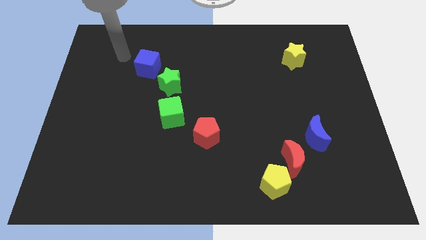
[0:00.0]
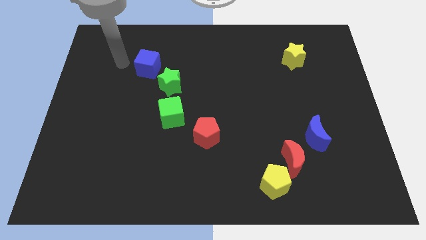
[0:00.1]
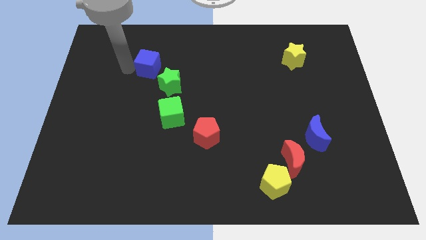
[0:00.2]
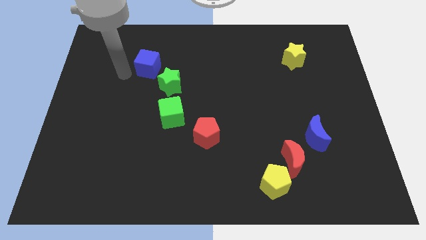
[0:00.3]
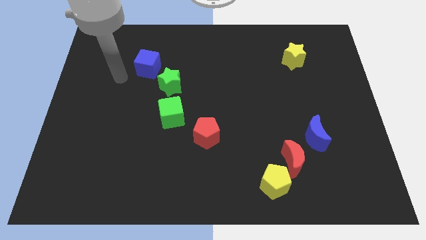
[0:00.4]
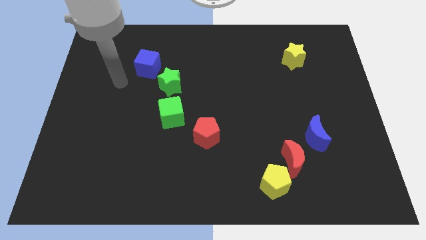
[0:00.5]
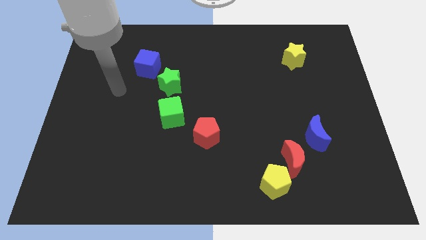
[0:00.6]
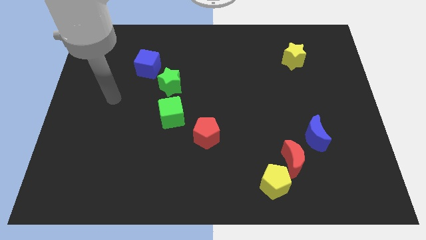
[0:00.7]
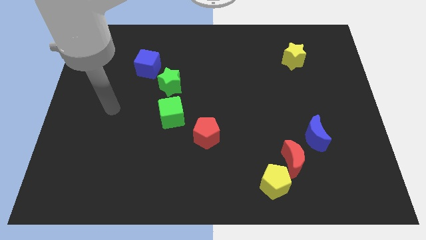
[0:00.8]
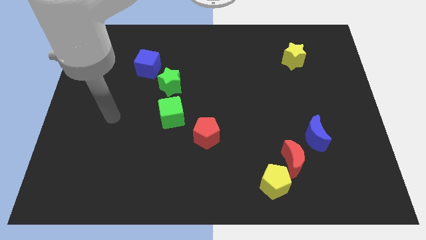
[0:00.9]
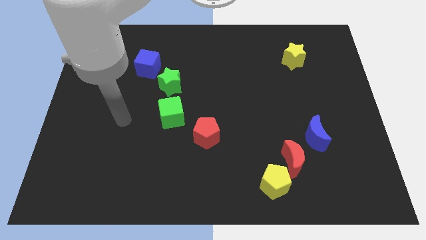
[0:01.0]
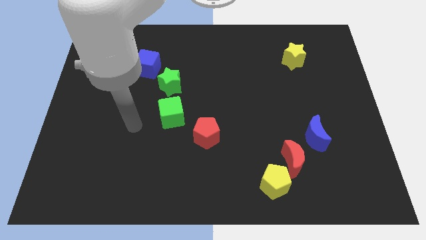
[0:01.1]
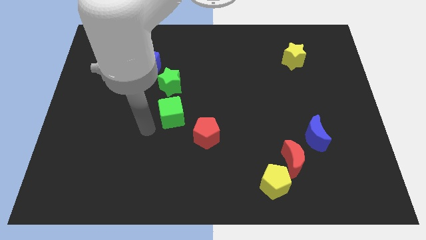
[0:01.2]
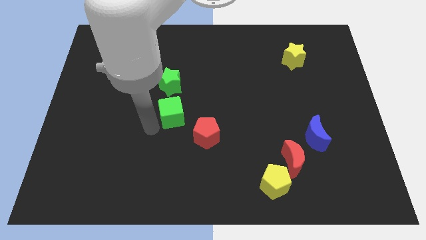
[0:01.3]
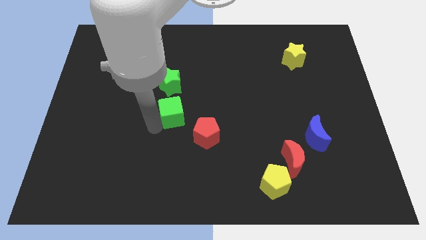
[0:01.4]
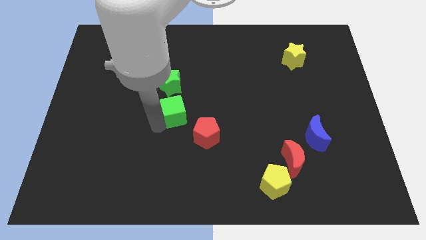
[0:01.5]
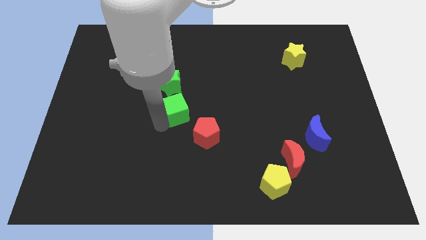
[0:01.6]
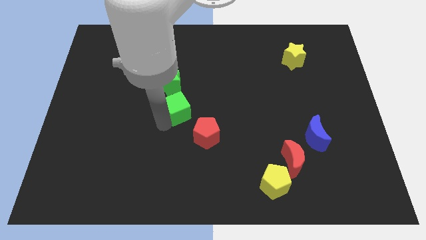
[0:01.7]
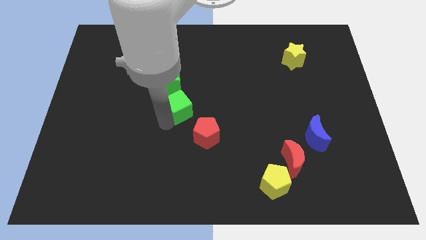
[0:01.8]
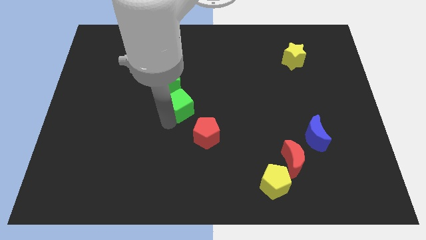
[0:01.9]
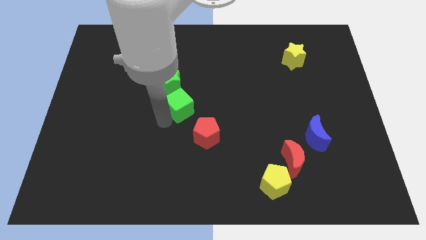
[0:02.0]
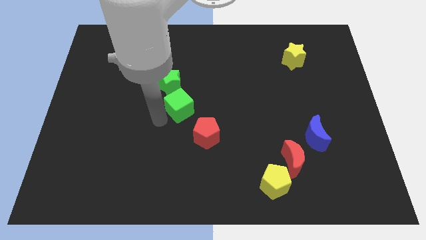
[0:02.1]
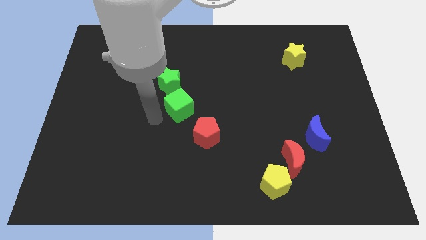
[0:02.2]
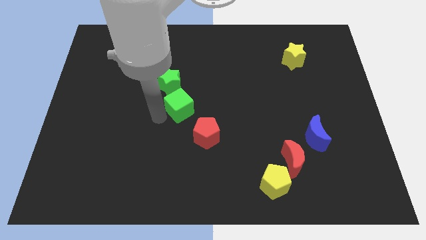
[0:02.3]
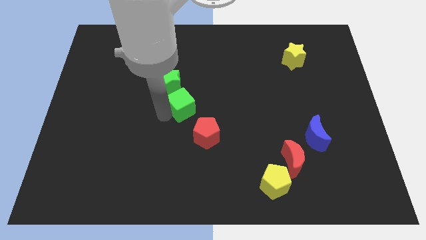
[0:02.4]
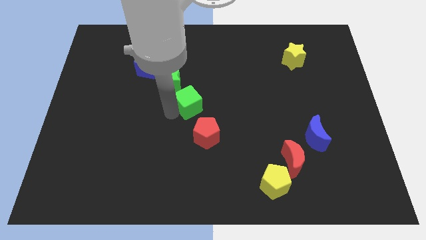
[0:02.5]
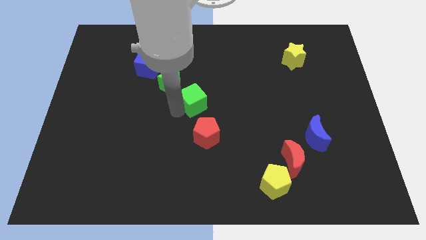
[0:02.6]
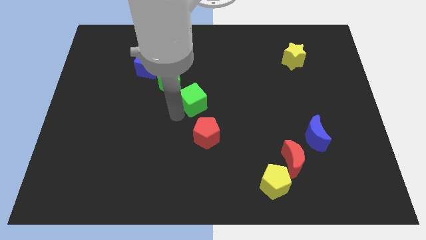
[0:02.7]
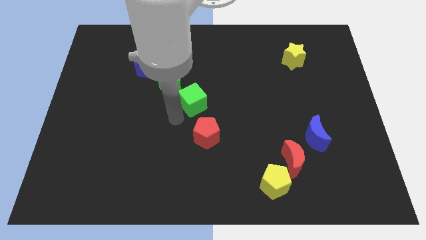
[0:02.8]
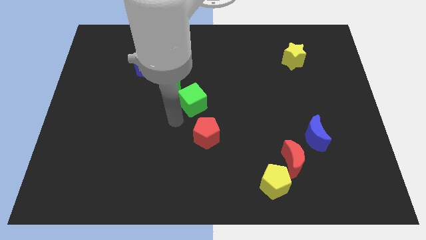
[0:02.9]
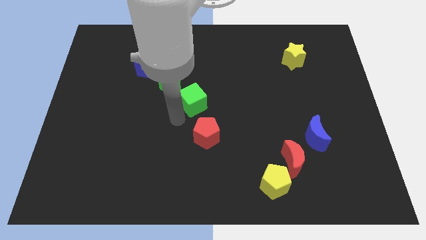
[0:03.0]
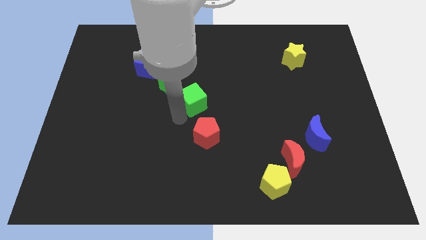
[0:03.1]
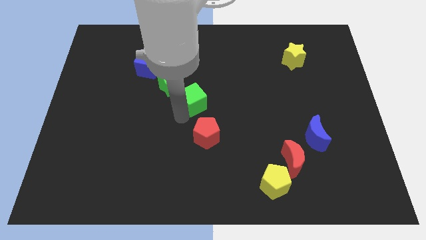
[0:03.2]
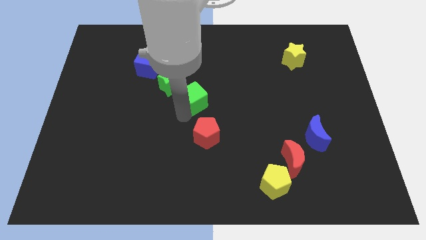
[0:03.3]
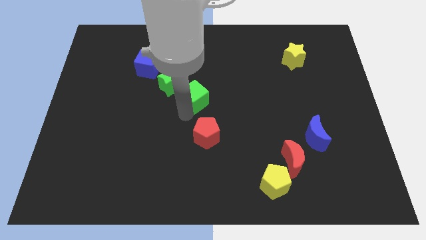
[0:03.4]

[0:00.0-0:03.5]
slightly move the green cube diagonally up and right

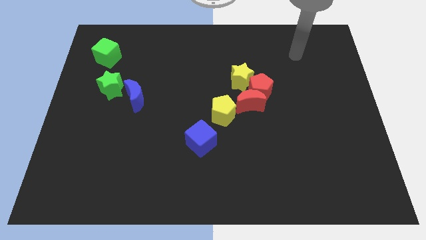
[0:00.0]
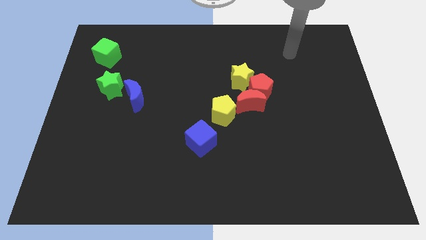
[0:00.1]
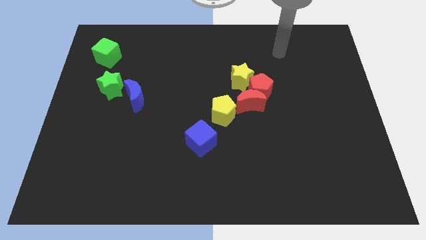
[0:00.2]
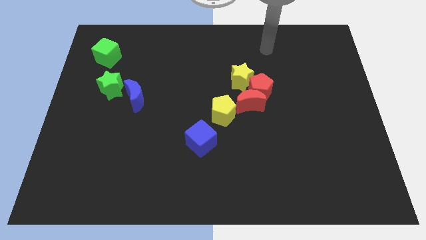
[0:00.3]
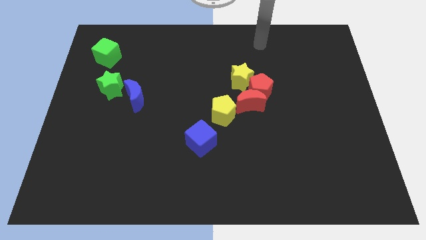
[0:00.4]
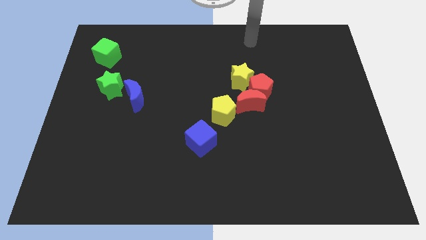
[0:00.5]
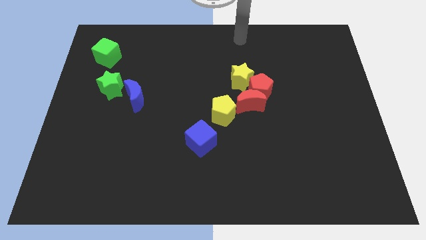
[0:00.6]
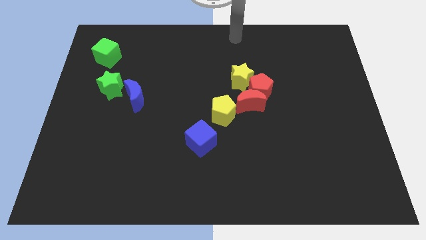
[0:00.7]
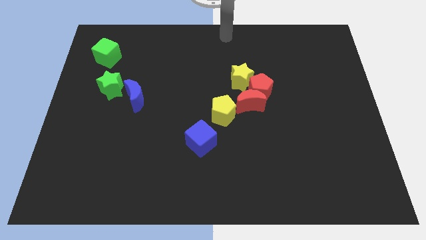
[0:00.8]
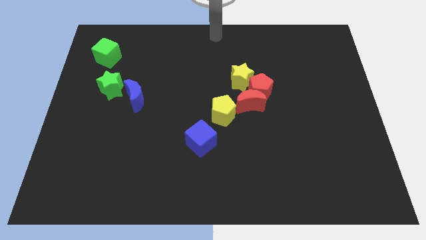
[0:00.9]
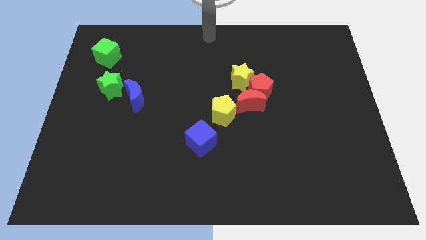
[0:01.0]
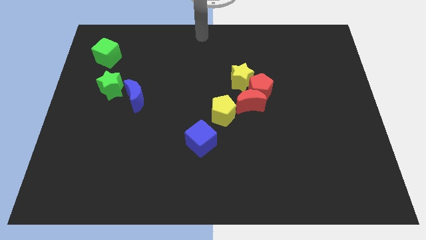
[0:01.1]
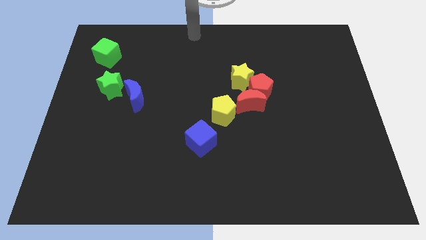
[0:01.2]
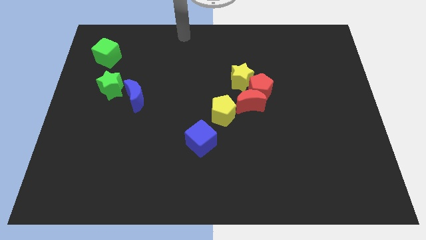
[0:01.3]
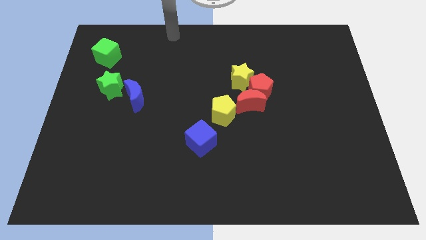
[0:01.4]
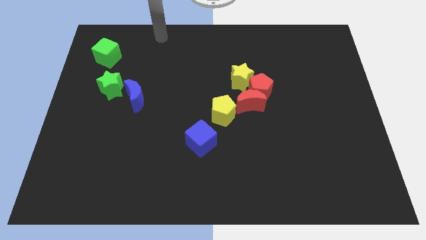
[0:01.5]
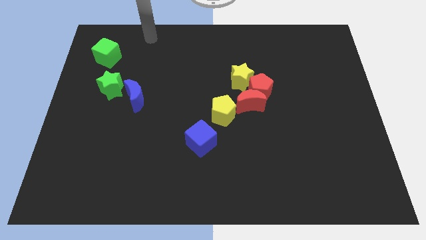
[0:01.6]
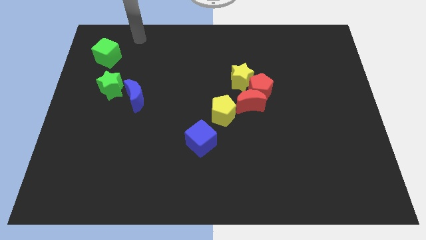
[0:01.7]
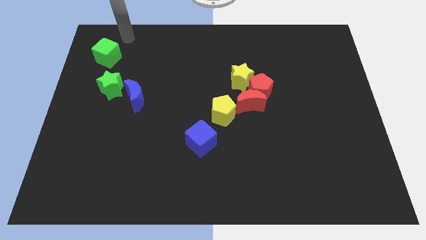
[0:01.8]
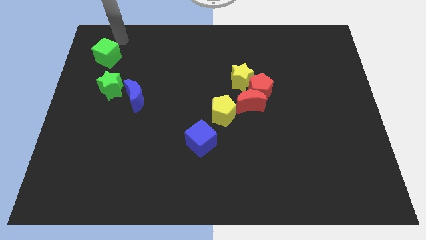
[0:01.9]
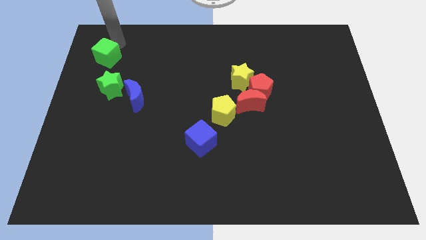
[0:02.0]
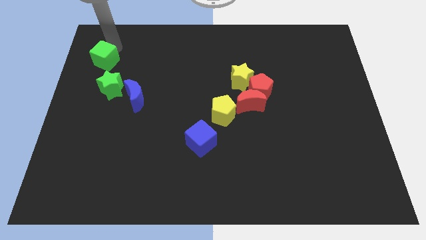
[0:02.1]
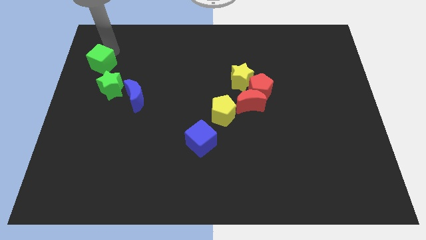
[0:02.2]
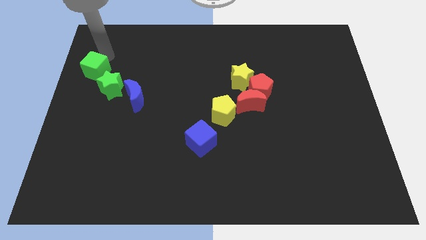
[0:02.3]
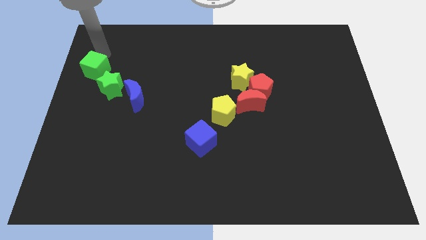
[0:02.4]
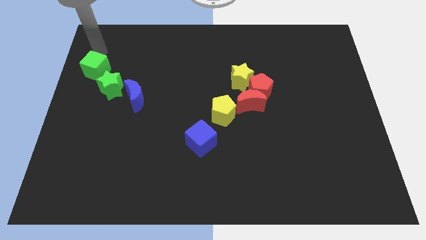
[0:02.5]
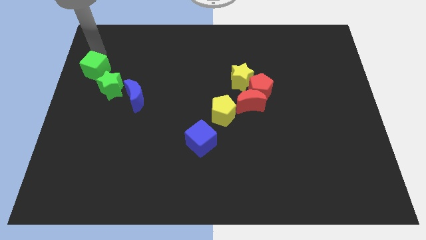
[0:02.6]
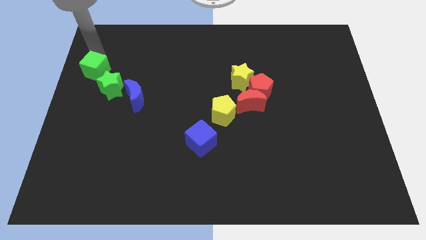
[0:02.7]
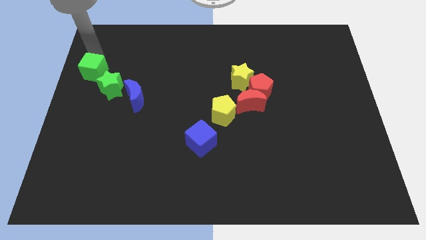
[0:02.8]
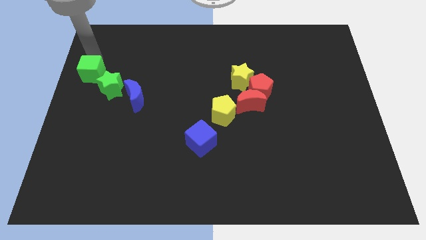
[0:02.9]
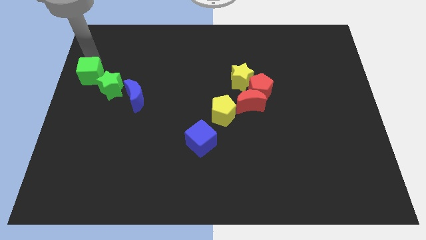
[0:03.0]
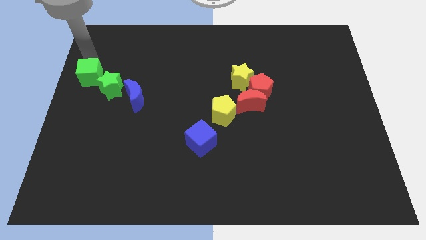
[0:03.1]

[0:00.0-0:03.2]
slide the green cube down slightly

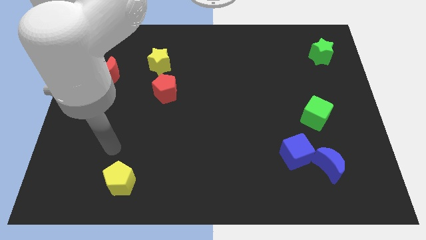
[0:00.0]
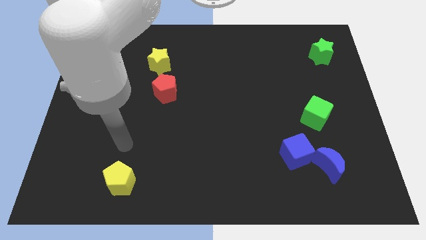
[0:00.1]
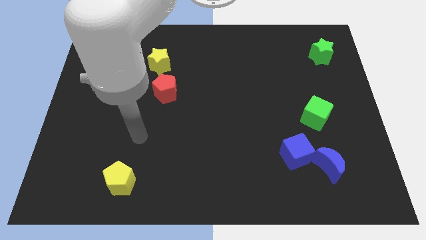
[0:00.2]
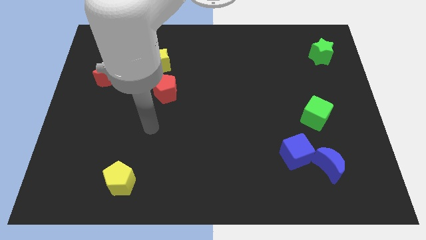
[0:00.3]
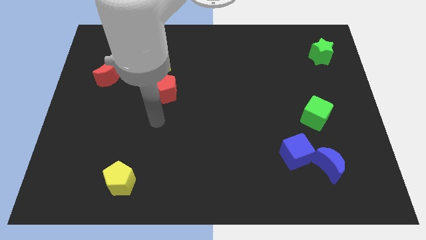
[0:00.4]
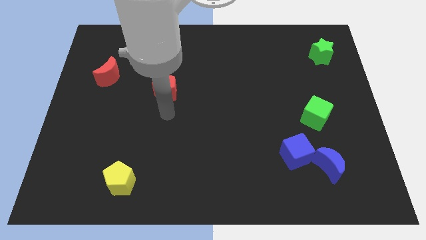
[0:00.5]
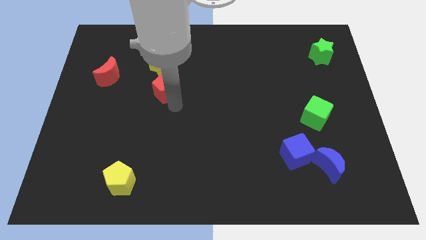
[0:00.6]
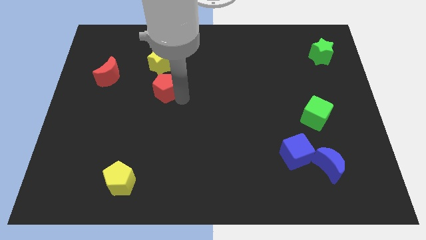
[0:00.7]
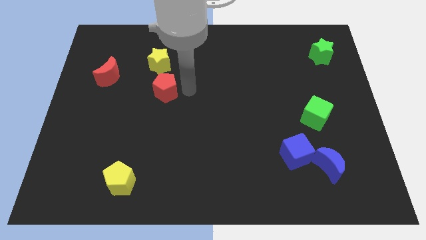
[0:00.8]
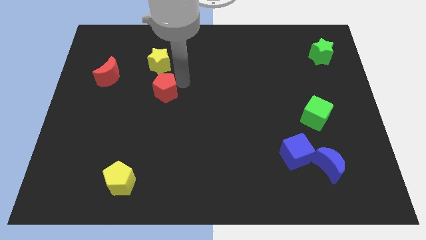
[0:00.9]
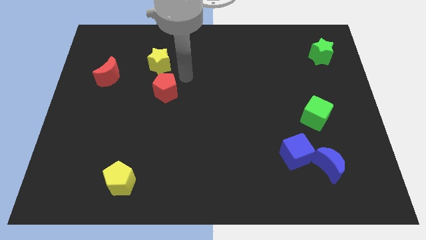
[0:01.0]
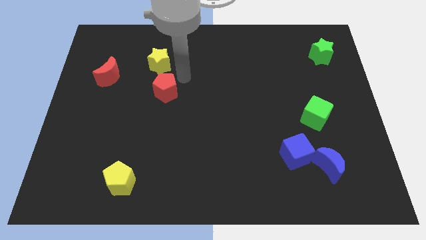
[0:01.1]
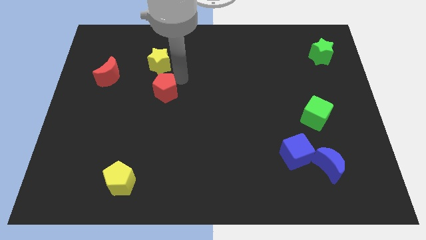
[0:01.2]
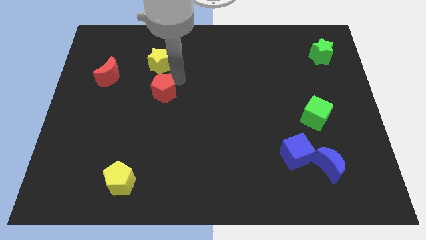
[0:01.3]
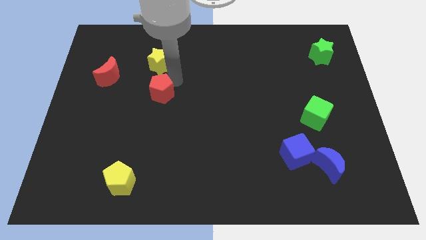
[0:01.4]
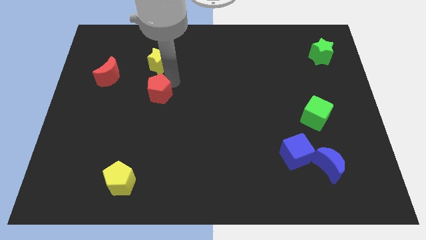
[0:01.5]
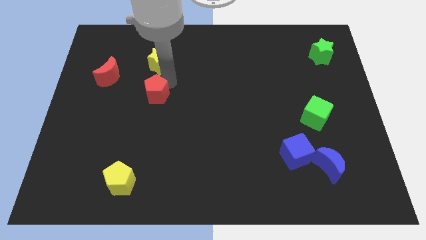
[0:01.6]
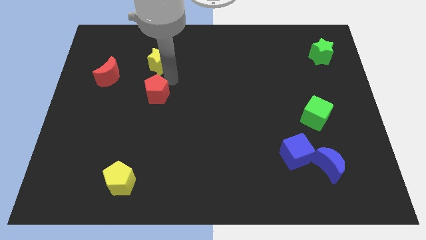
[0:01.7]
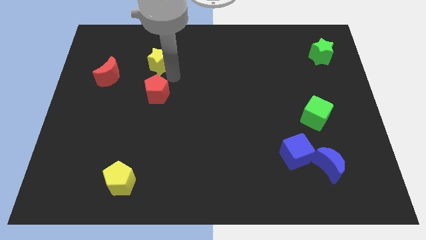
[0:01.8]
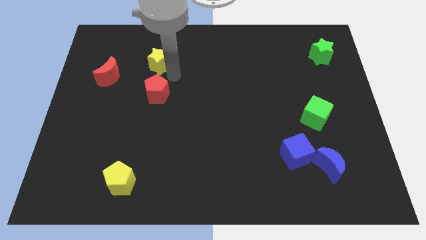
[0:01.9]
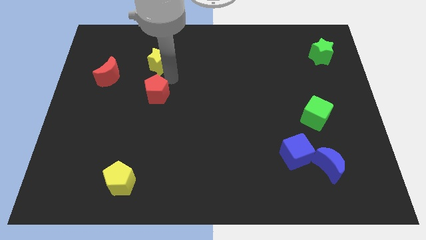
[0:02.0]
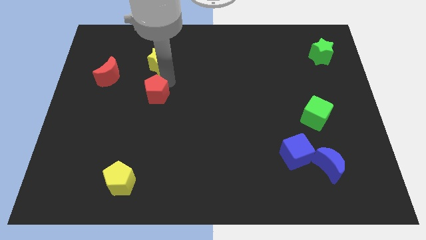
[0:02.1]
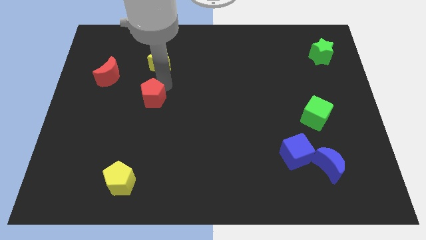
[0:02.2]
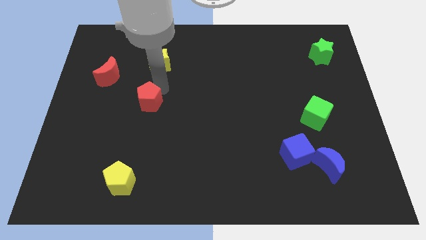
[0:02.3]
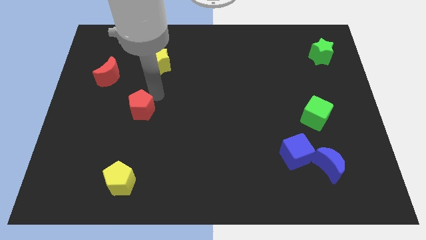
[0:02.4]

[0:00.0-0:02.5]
slightly move the red pentagon down and left diagonally
